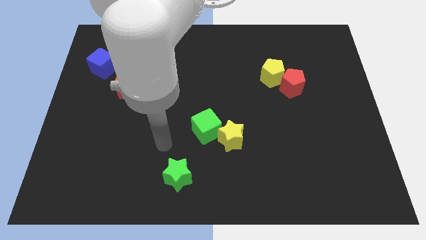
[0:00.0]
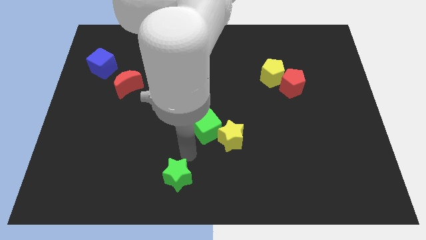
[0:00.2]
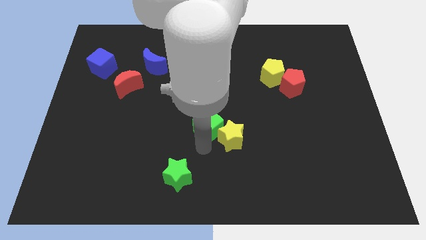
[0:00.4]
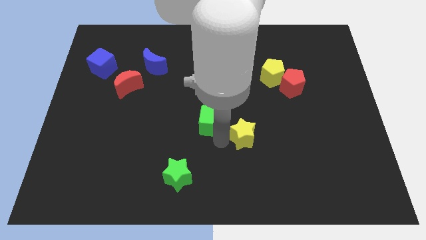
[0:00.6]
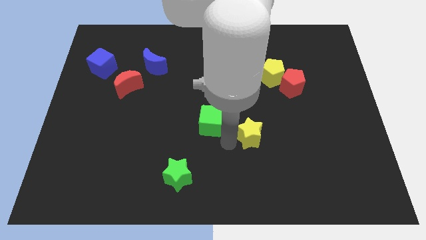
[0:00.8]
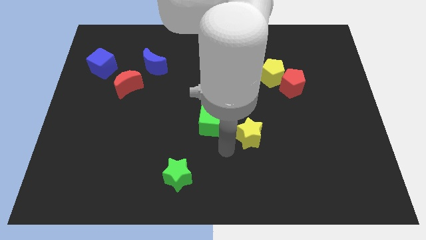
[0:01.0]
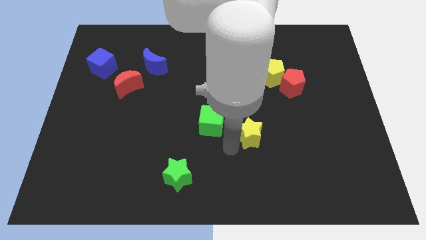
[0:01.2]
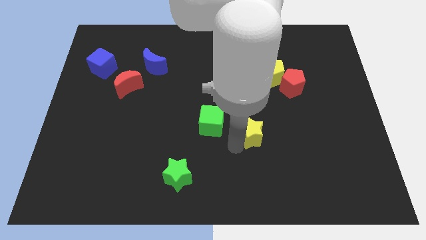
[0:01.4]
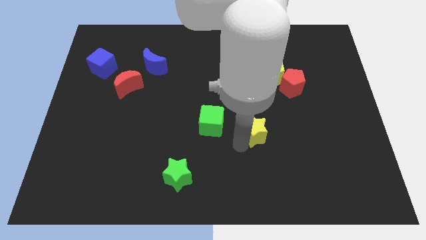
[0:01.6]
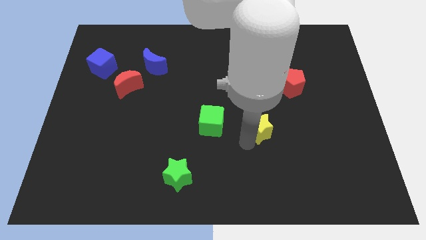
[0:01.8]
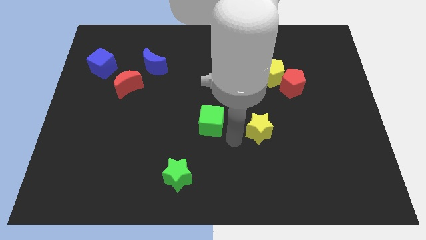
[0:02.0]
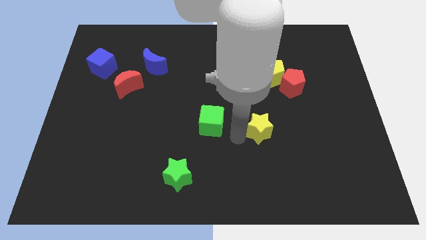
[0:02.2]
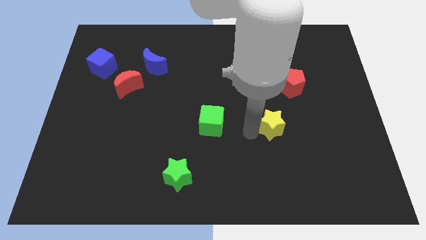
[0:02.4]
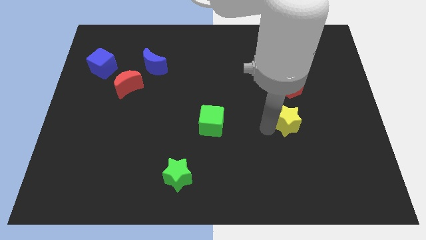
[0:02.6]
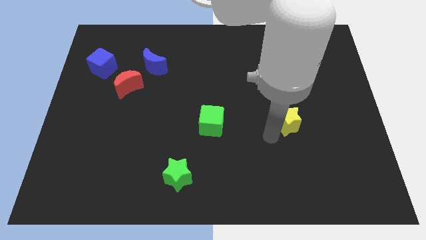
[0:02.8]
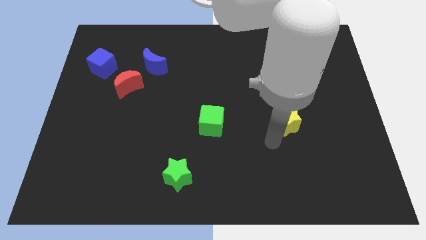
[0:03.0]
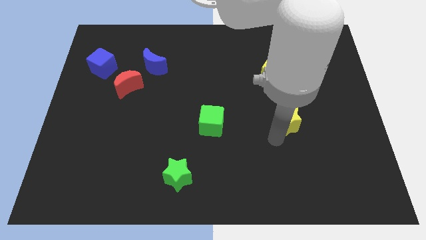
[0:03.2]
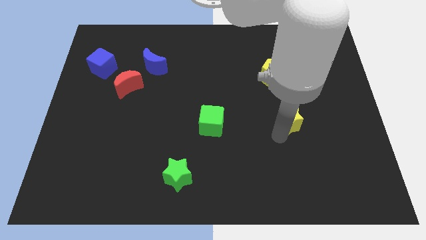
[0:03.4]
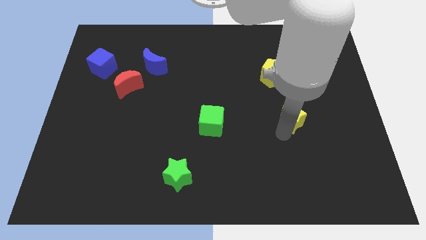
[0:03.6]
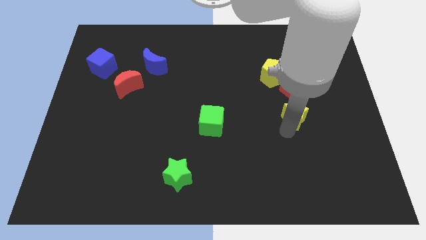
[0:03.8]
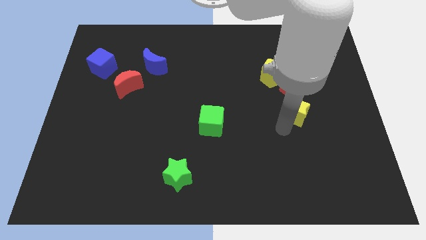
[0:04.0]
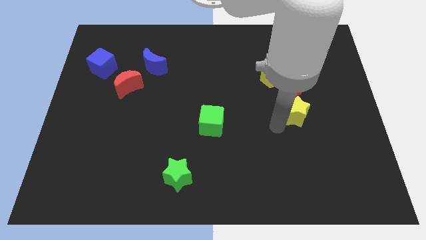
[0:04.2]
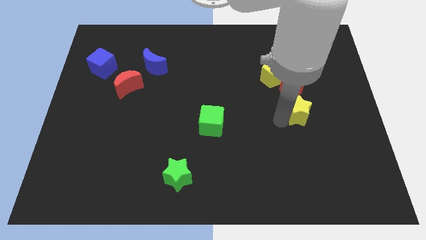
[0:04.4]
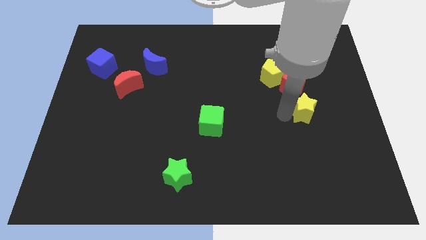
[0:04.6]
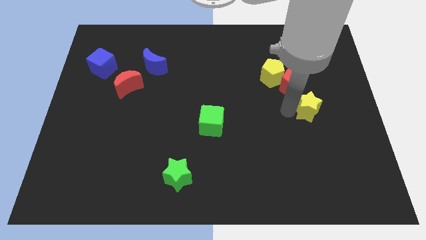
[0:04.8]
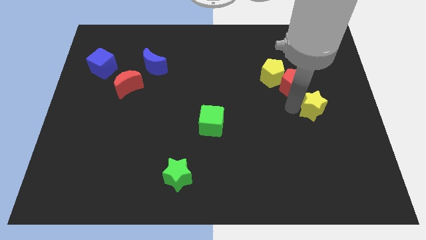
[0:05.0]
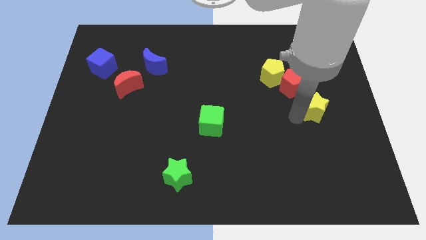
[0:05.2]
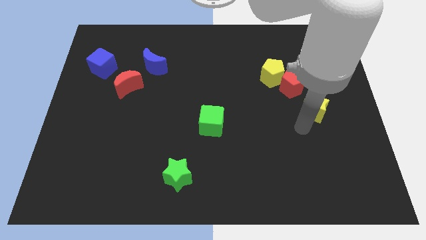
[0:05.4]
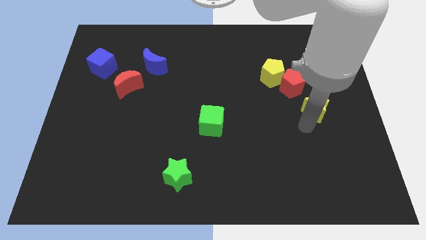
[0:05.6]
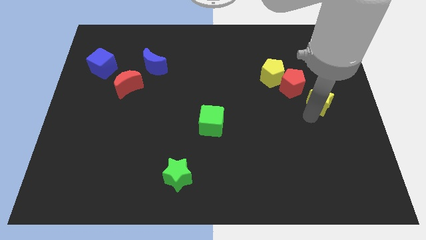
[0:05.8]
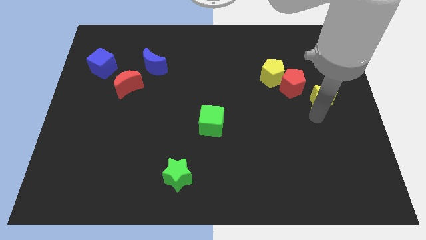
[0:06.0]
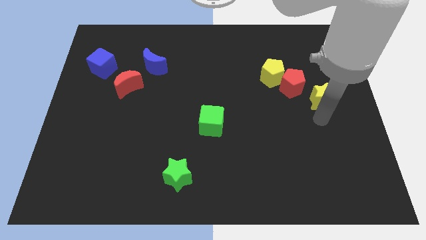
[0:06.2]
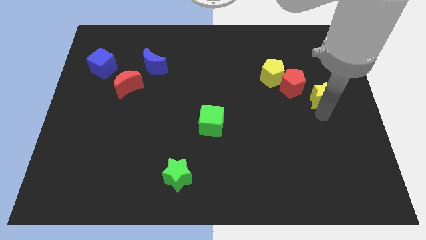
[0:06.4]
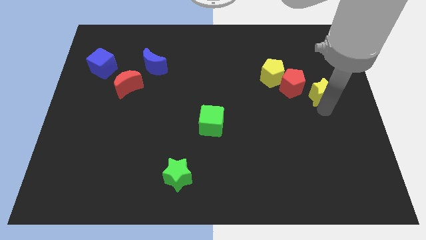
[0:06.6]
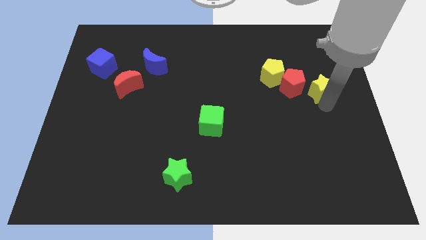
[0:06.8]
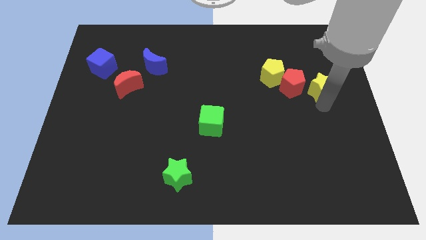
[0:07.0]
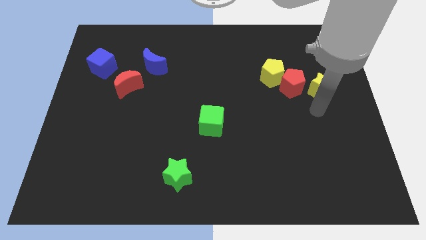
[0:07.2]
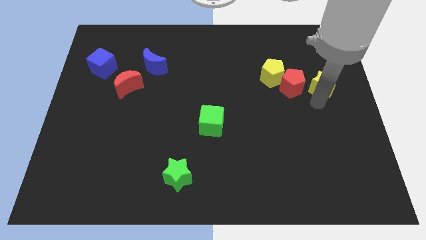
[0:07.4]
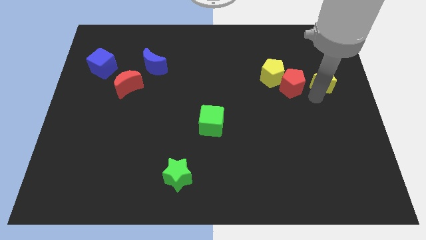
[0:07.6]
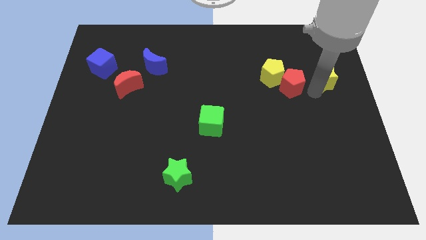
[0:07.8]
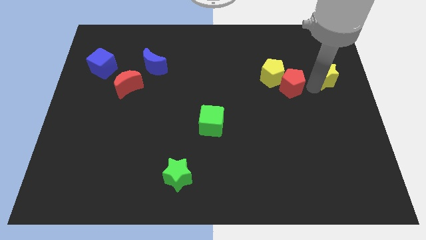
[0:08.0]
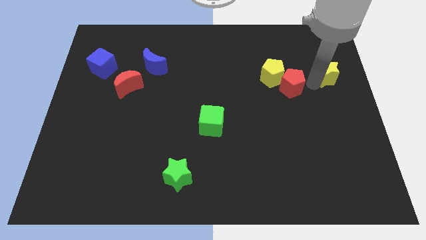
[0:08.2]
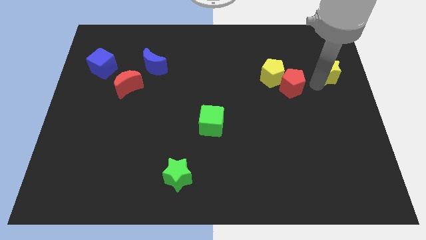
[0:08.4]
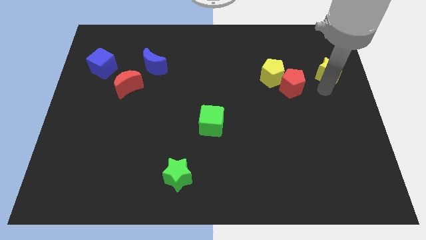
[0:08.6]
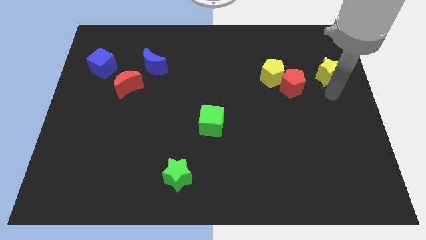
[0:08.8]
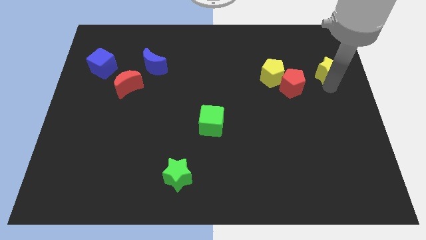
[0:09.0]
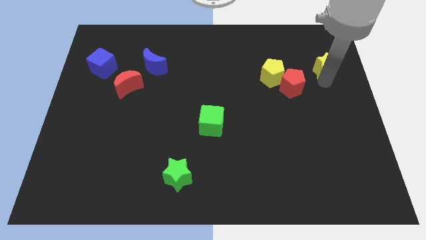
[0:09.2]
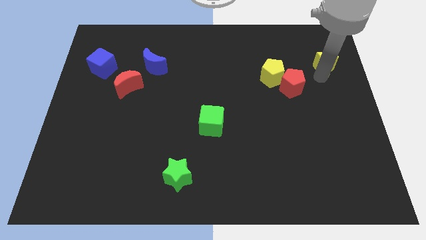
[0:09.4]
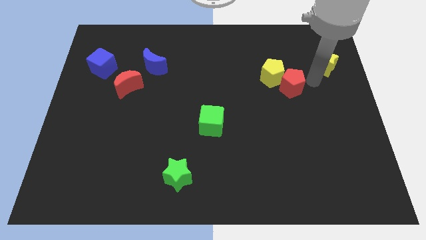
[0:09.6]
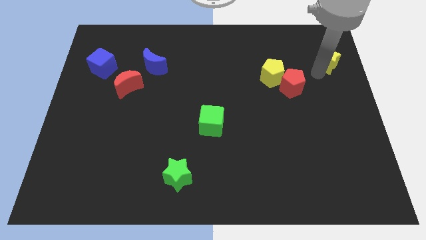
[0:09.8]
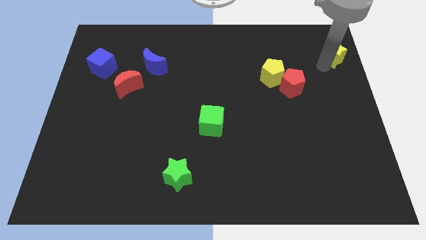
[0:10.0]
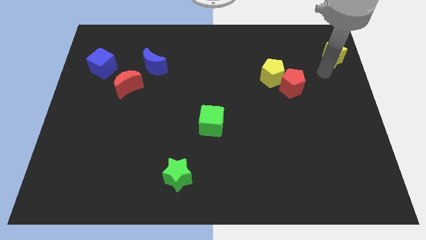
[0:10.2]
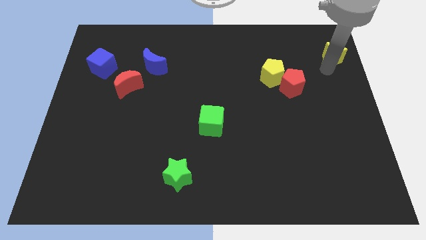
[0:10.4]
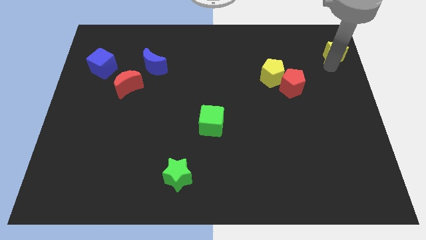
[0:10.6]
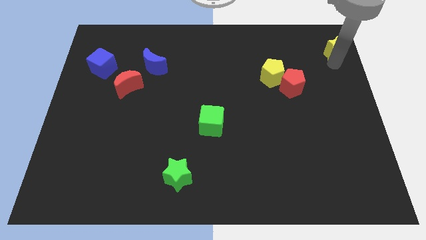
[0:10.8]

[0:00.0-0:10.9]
move the yellow star to the upper right corner
